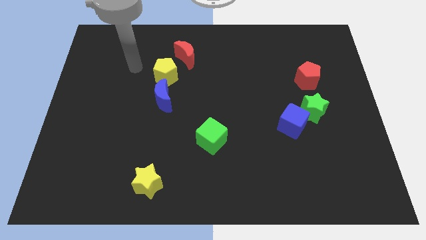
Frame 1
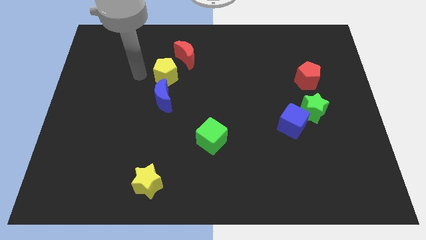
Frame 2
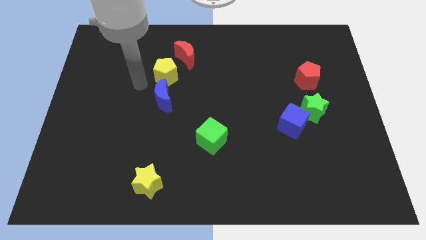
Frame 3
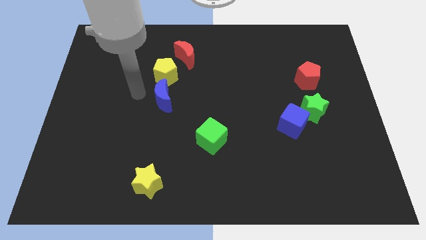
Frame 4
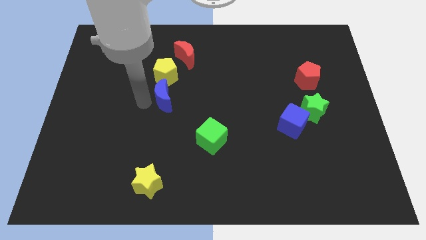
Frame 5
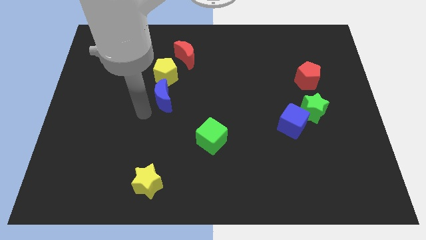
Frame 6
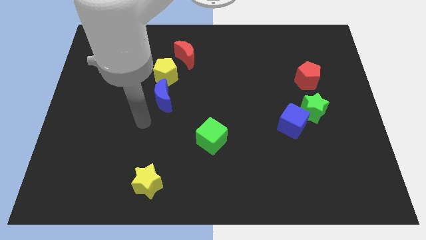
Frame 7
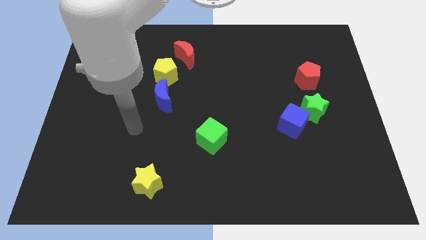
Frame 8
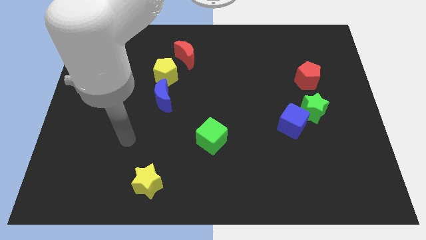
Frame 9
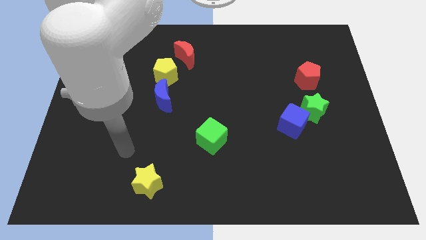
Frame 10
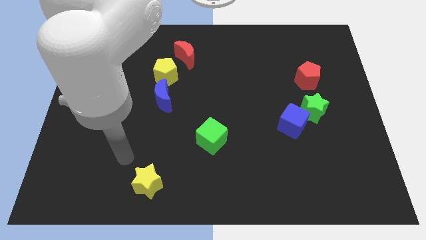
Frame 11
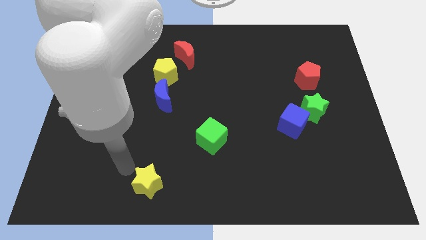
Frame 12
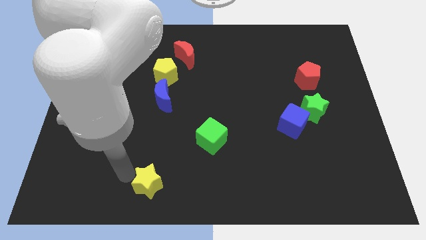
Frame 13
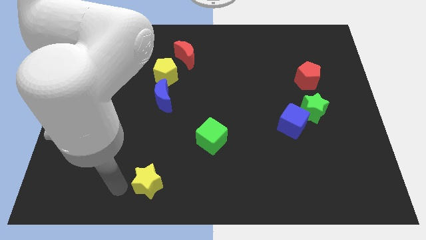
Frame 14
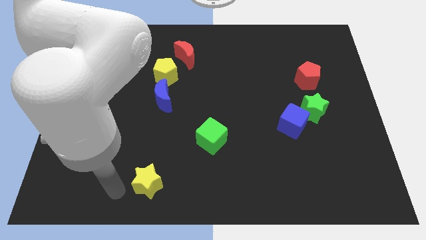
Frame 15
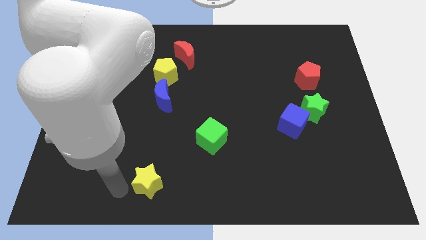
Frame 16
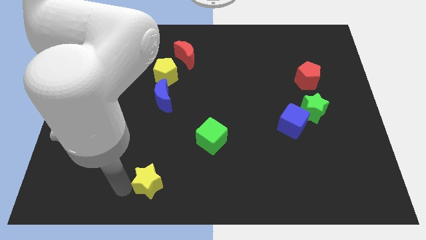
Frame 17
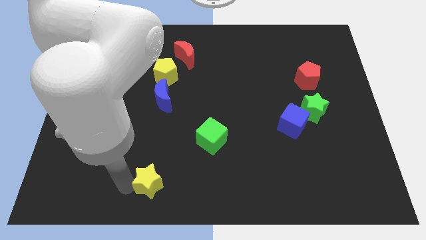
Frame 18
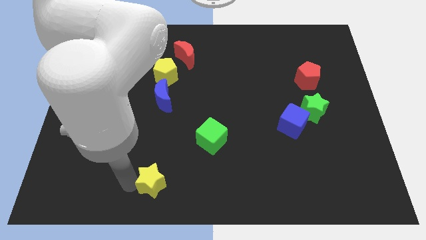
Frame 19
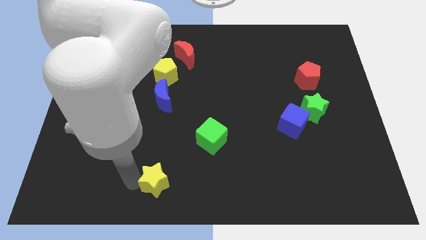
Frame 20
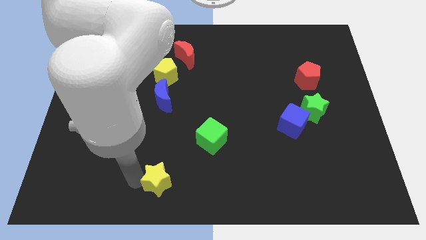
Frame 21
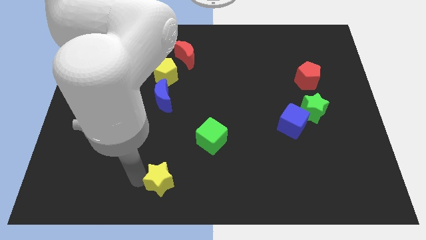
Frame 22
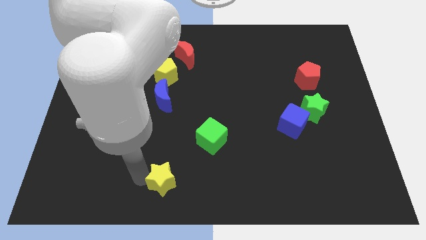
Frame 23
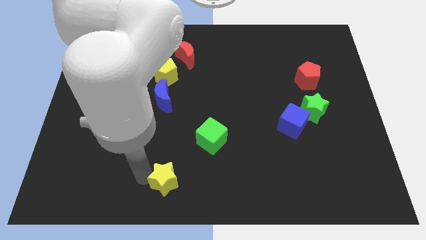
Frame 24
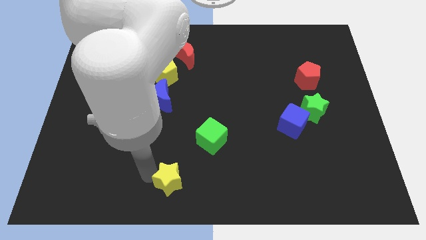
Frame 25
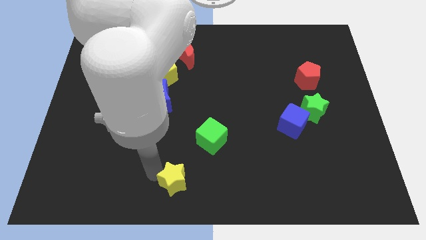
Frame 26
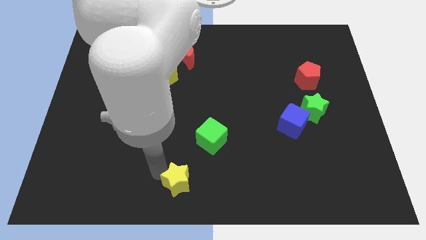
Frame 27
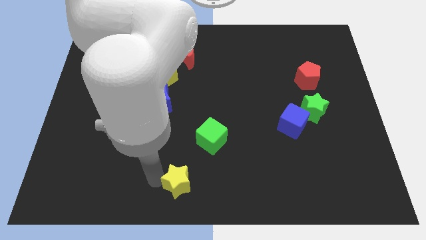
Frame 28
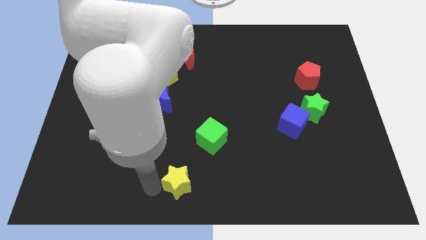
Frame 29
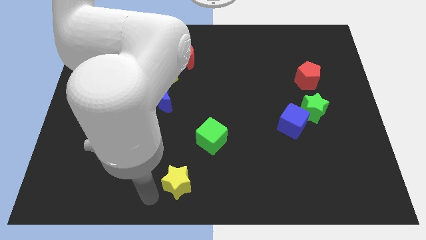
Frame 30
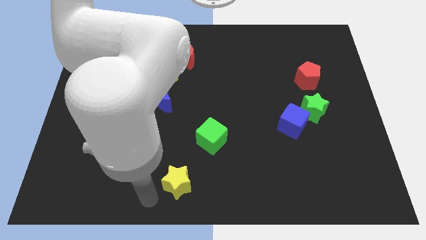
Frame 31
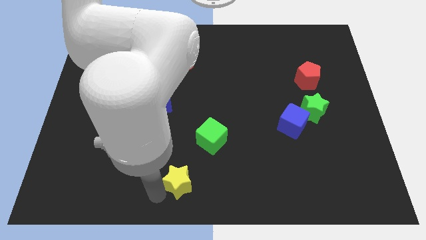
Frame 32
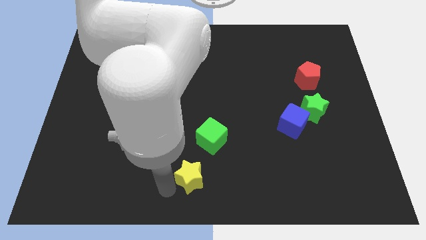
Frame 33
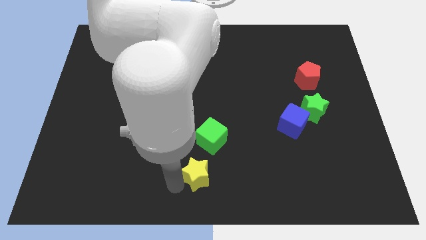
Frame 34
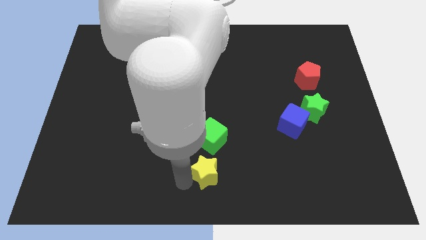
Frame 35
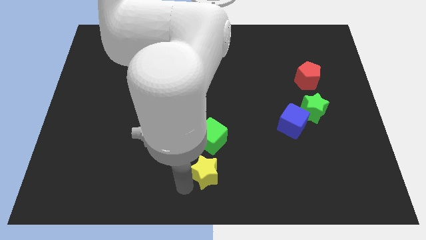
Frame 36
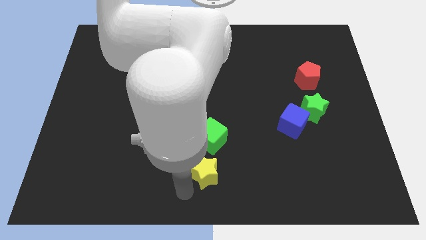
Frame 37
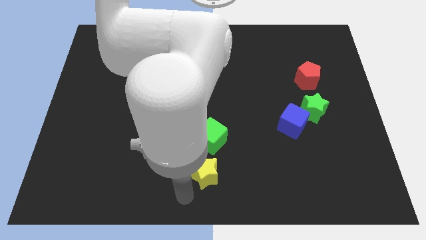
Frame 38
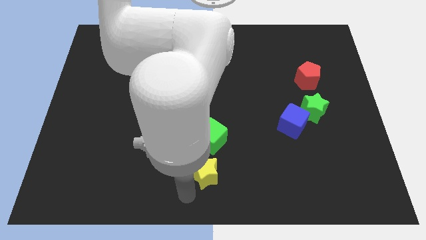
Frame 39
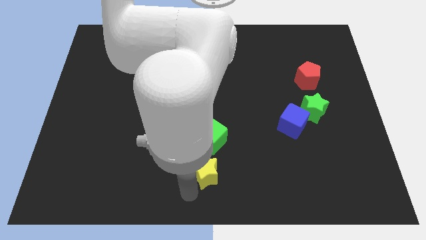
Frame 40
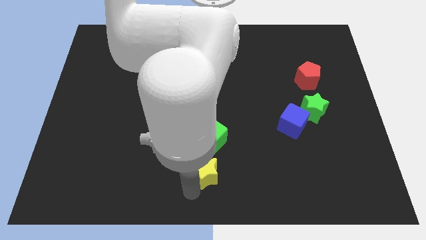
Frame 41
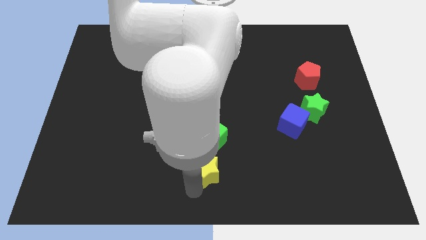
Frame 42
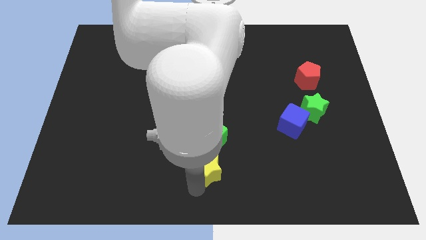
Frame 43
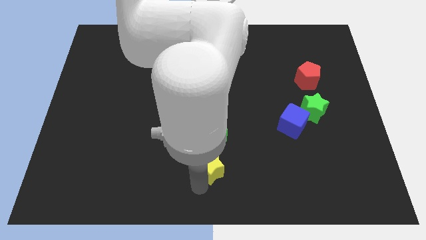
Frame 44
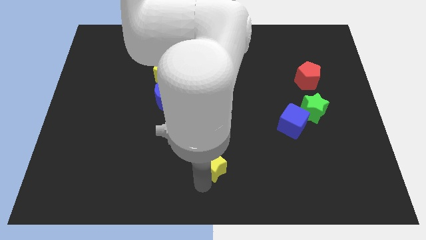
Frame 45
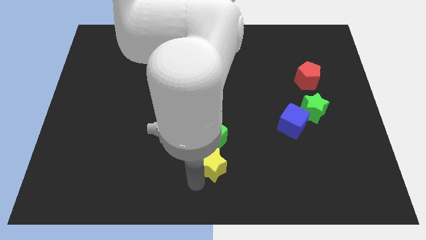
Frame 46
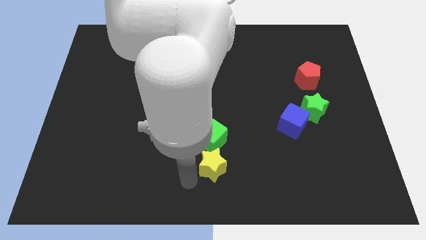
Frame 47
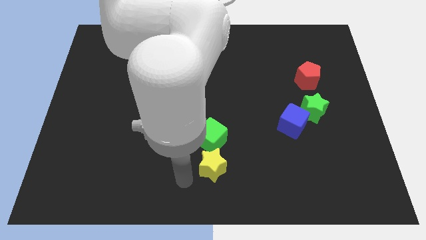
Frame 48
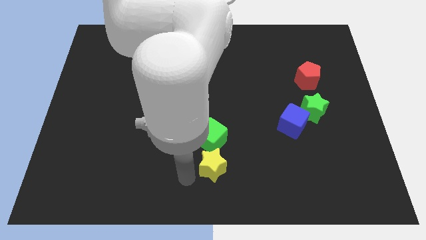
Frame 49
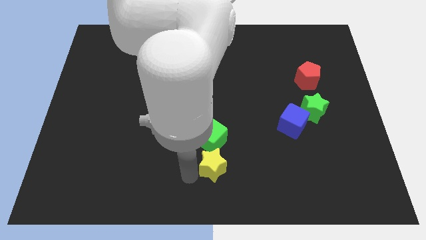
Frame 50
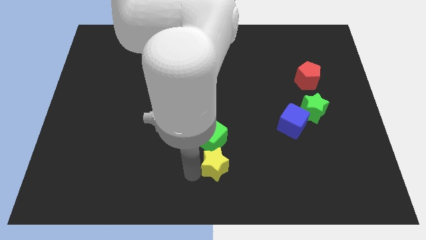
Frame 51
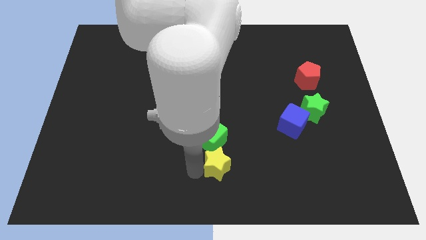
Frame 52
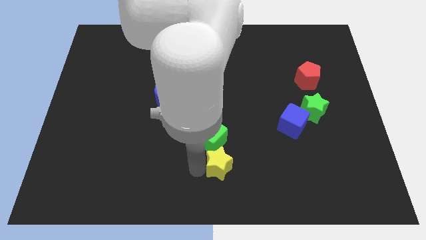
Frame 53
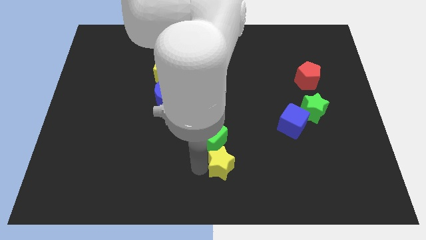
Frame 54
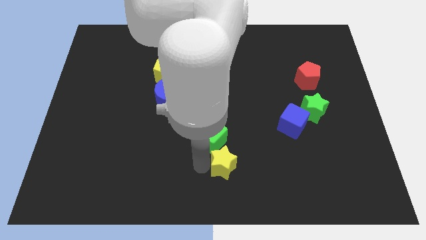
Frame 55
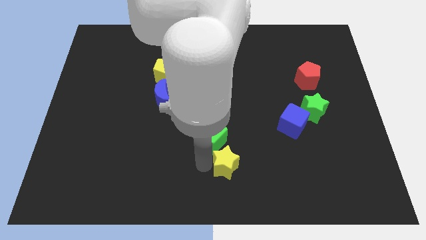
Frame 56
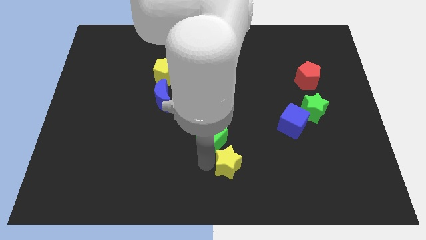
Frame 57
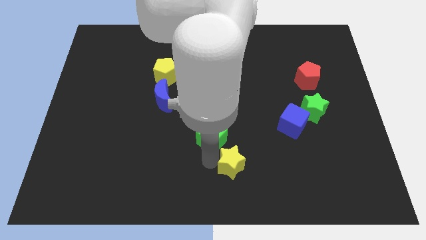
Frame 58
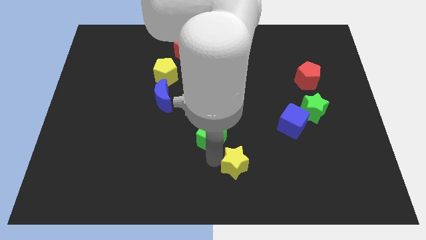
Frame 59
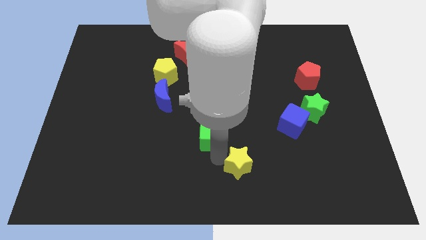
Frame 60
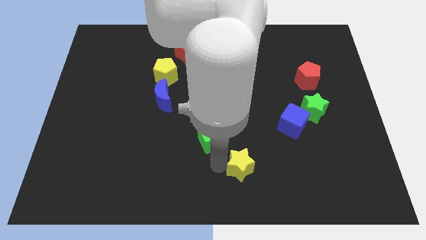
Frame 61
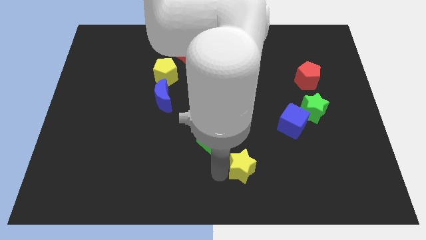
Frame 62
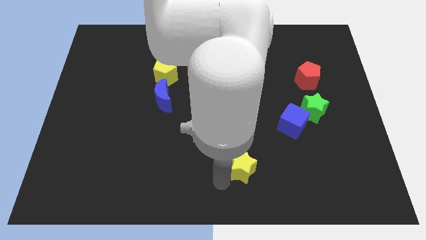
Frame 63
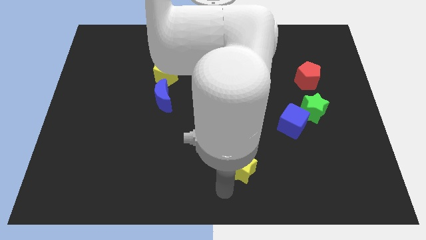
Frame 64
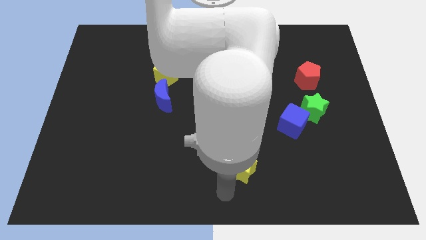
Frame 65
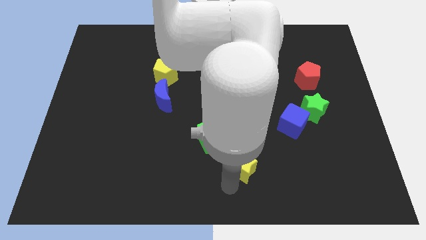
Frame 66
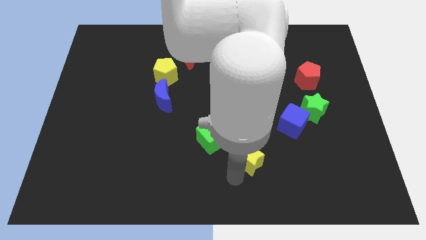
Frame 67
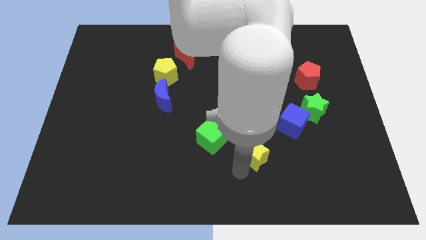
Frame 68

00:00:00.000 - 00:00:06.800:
slide the yellow star to the right side of the green cube

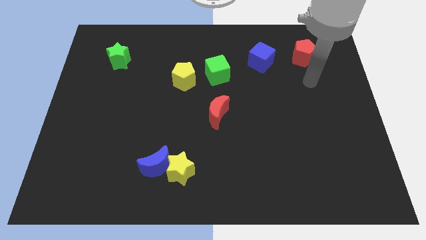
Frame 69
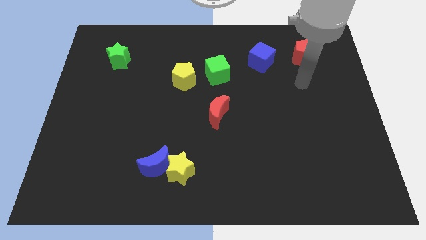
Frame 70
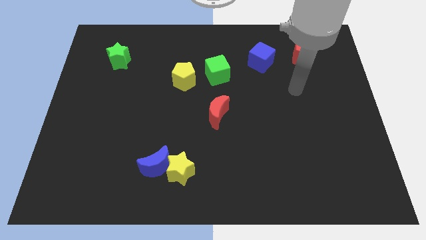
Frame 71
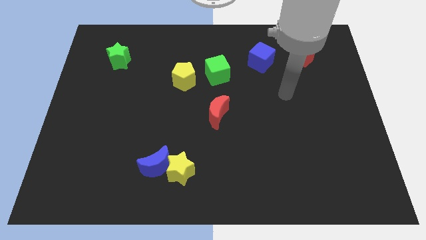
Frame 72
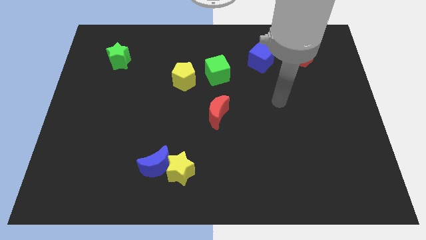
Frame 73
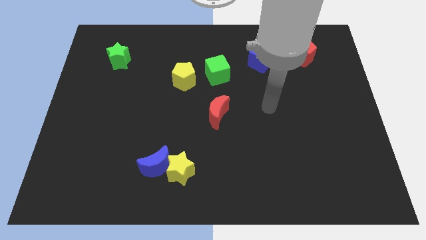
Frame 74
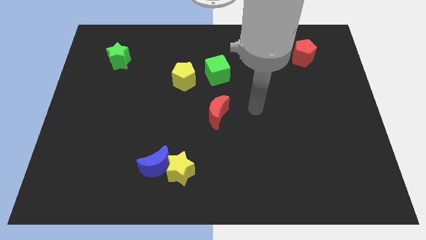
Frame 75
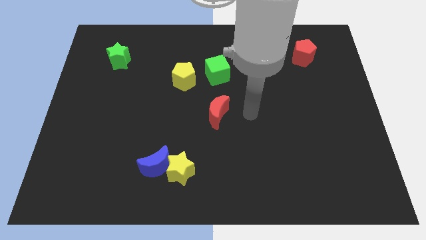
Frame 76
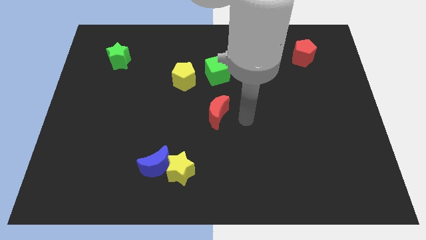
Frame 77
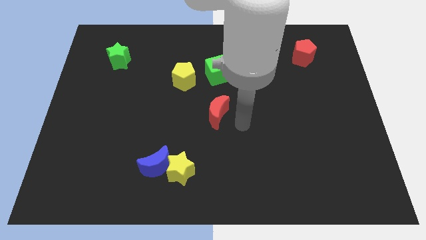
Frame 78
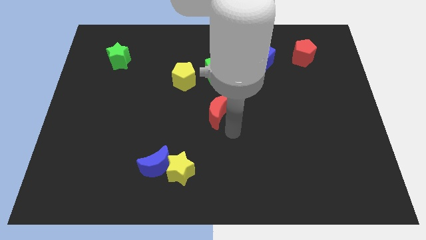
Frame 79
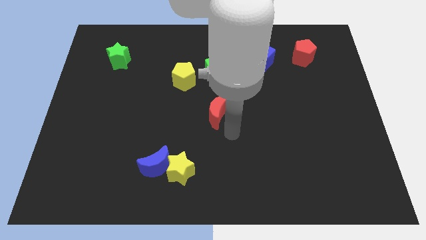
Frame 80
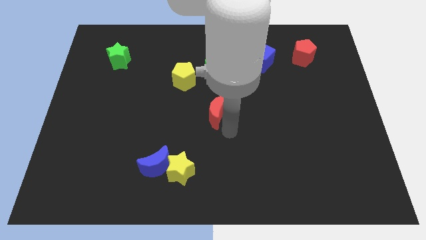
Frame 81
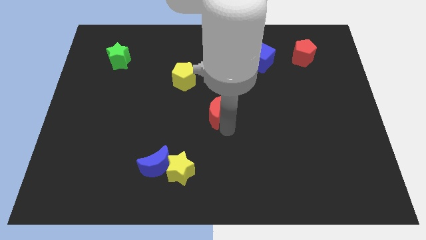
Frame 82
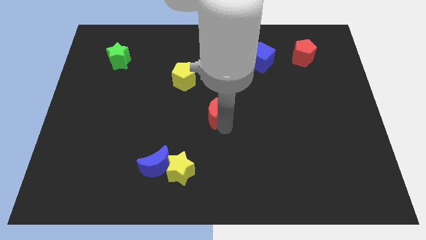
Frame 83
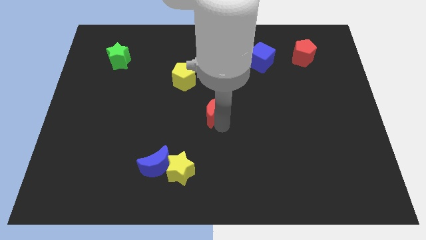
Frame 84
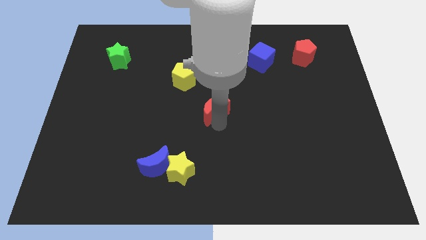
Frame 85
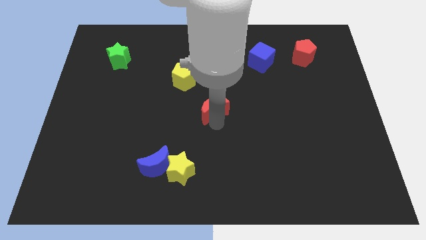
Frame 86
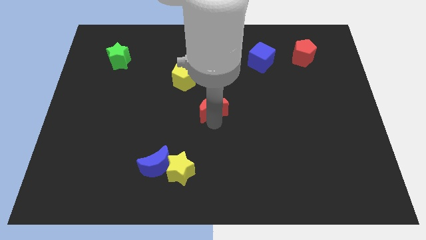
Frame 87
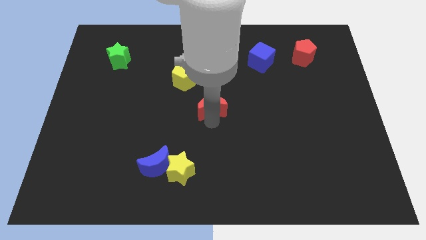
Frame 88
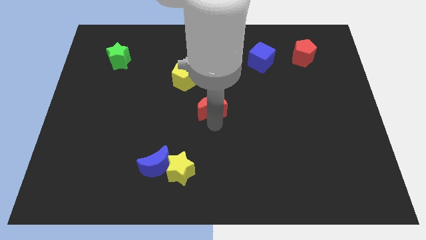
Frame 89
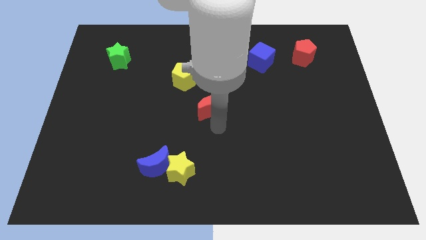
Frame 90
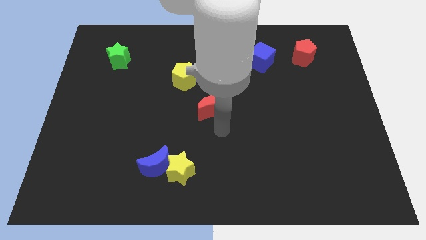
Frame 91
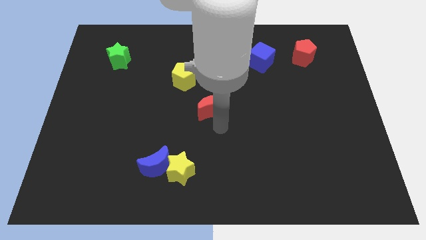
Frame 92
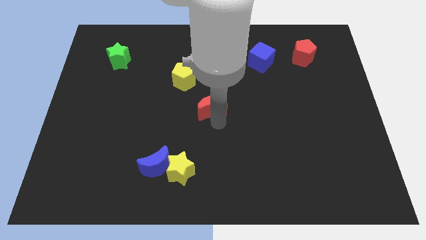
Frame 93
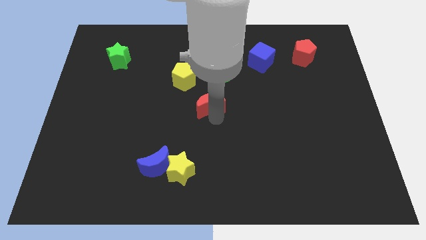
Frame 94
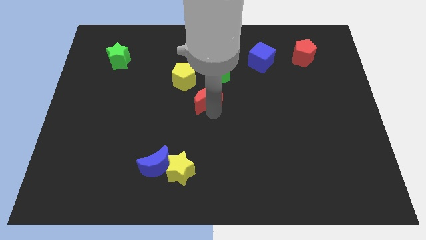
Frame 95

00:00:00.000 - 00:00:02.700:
put the red moon to the bottom left of the green cube
